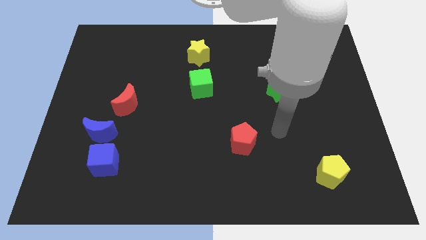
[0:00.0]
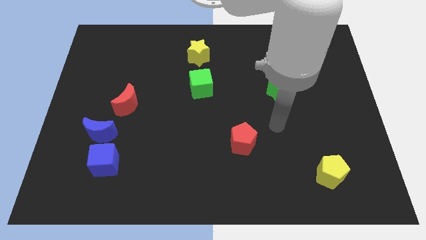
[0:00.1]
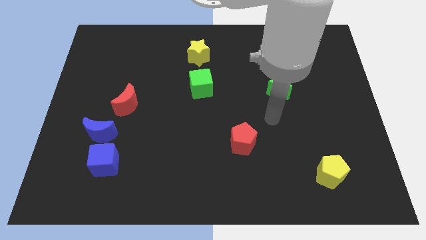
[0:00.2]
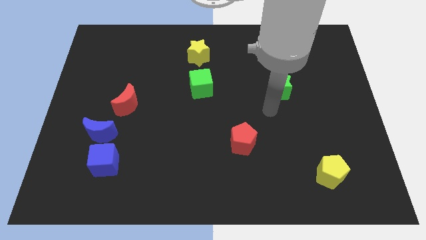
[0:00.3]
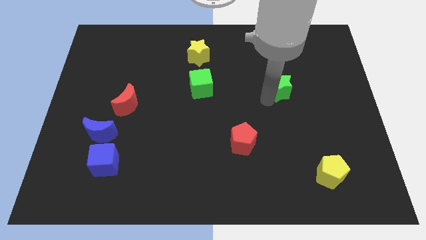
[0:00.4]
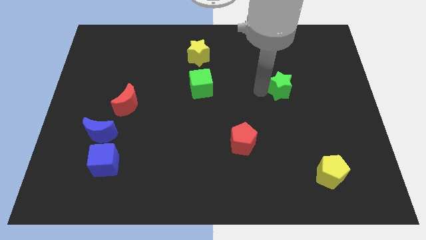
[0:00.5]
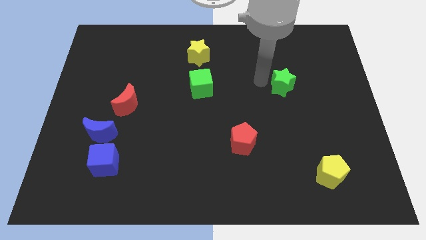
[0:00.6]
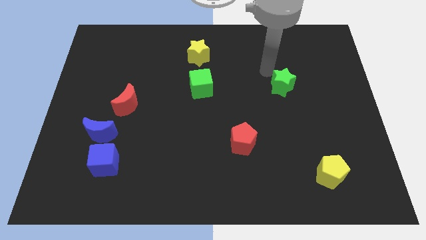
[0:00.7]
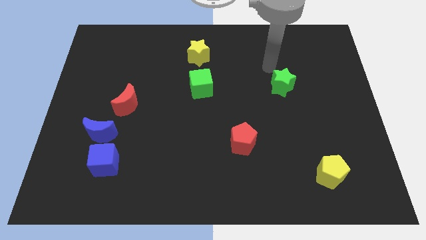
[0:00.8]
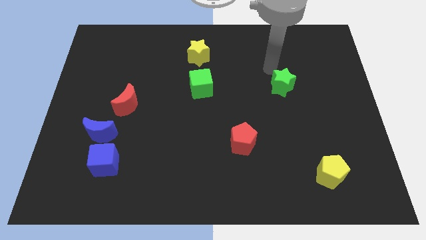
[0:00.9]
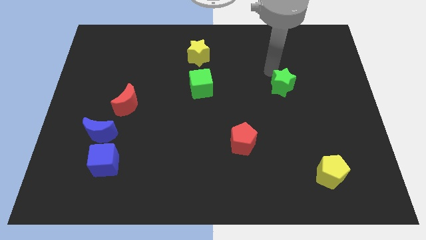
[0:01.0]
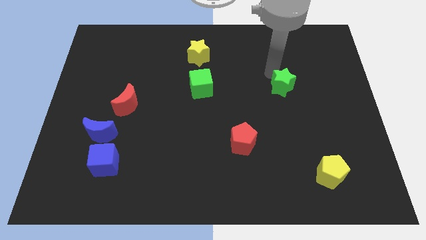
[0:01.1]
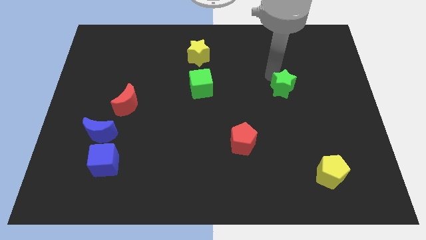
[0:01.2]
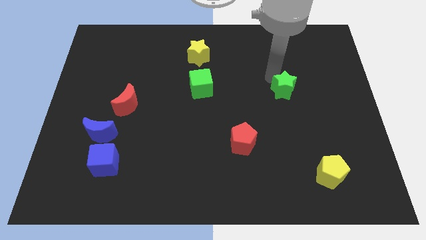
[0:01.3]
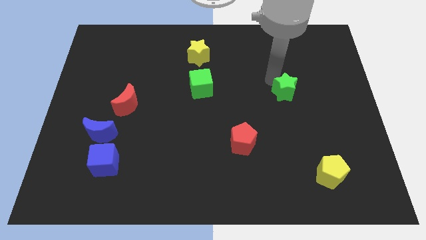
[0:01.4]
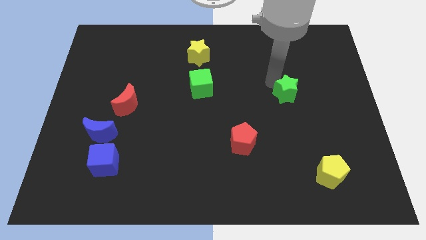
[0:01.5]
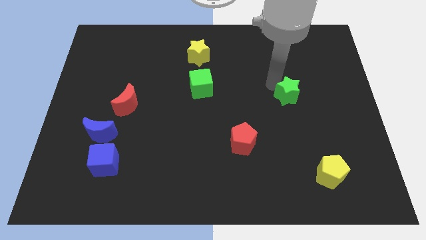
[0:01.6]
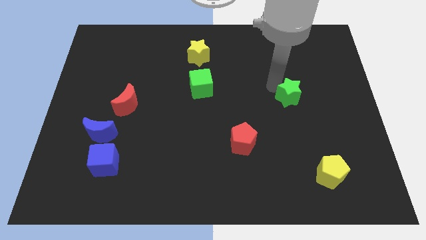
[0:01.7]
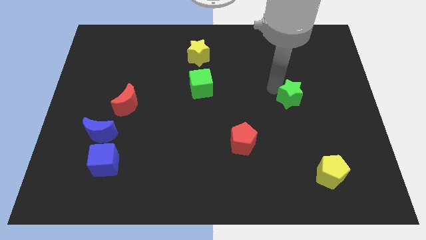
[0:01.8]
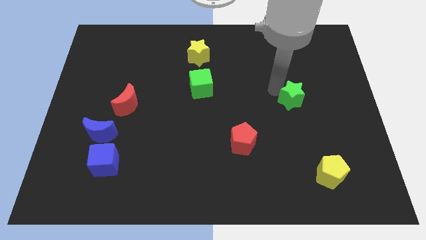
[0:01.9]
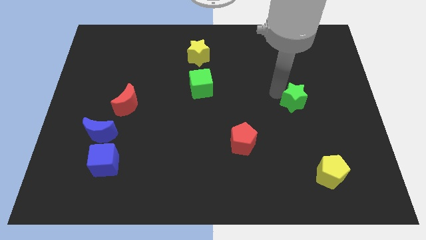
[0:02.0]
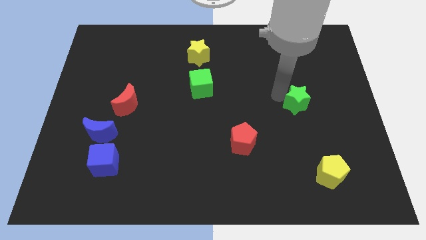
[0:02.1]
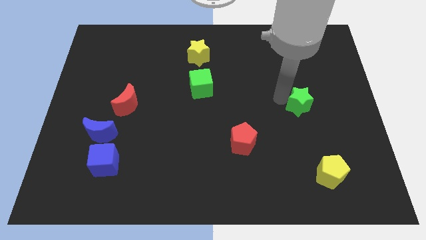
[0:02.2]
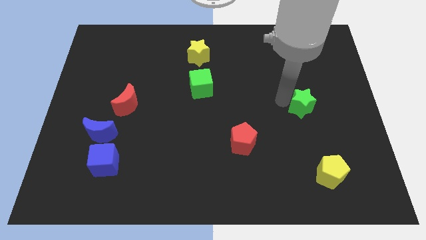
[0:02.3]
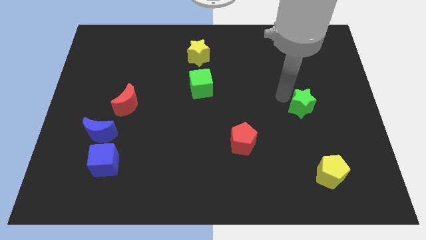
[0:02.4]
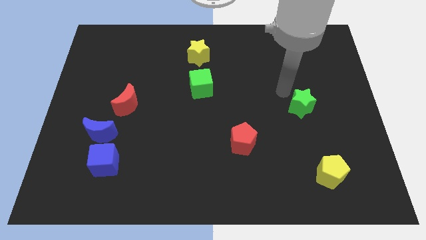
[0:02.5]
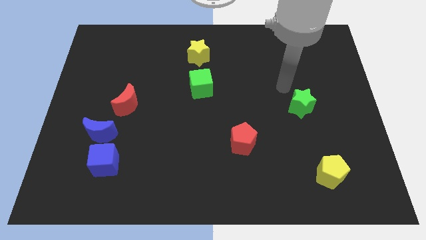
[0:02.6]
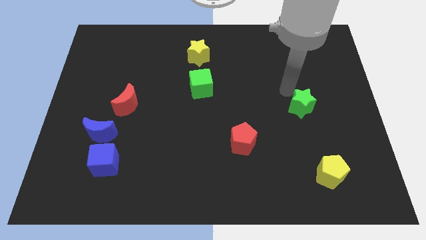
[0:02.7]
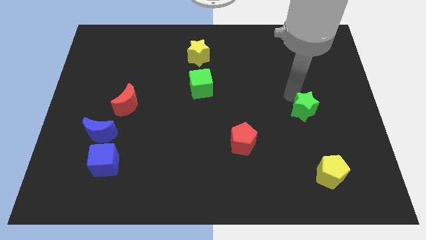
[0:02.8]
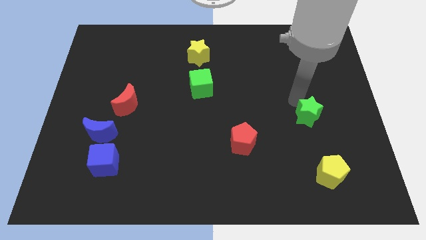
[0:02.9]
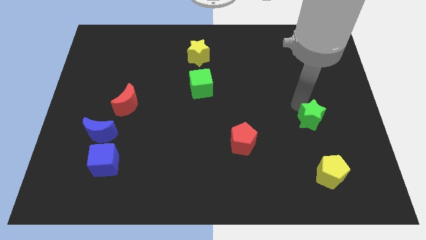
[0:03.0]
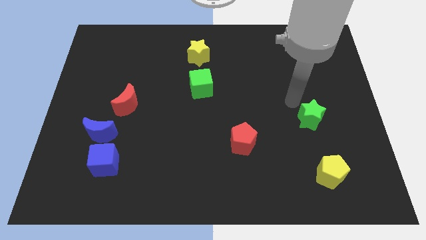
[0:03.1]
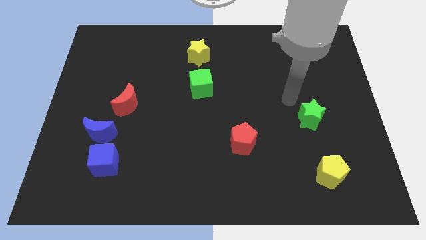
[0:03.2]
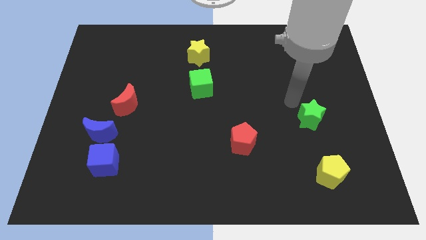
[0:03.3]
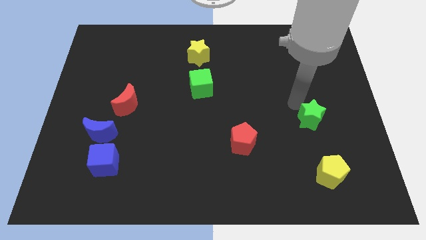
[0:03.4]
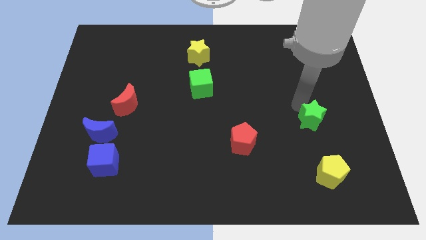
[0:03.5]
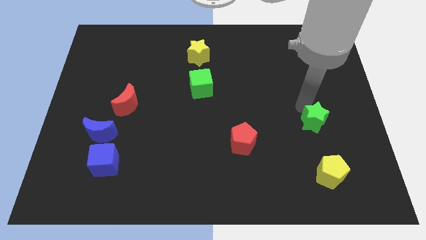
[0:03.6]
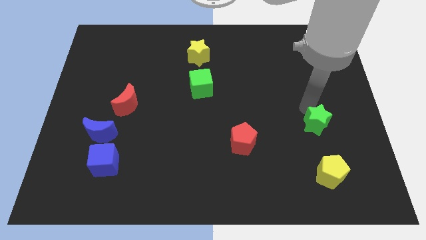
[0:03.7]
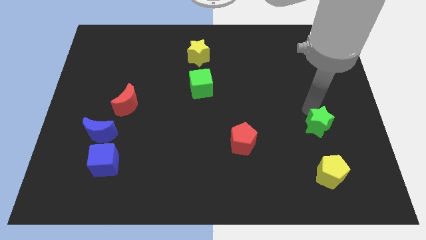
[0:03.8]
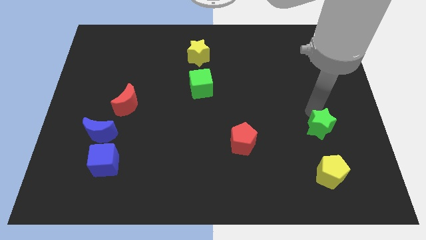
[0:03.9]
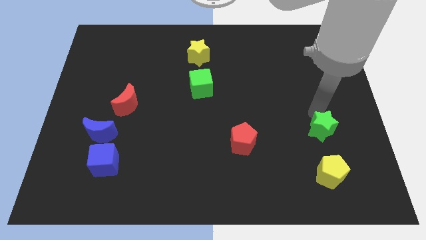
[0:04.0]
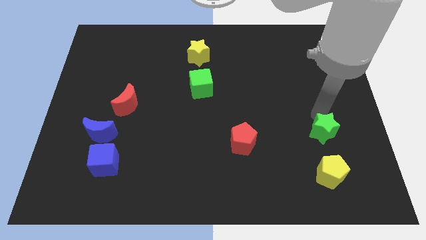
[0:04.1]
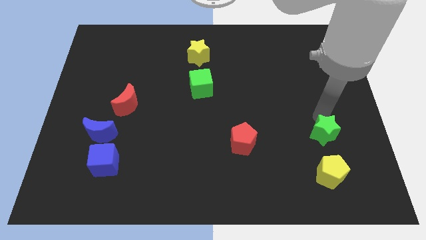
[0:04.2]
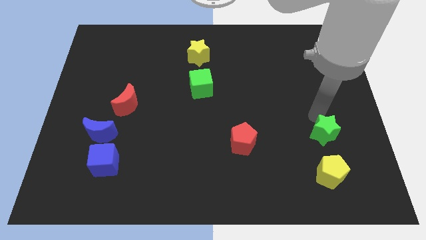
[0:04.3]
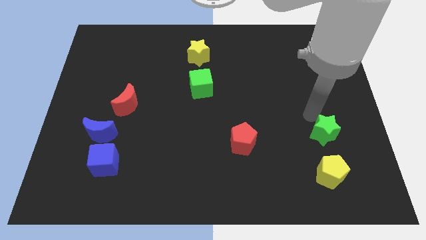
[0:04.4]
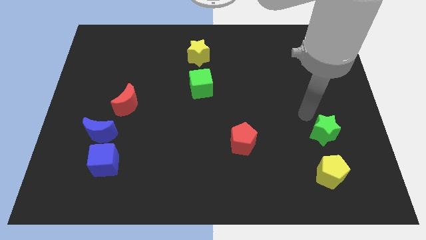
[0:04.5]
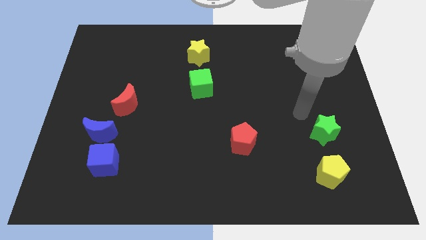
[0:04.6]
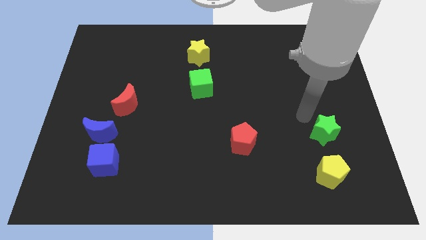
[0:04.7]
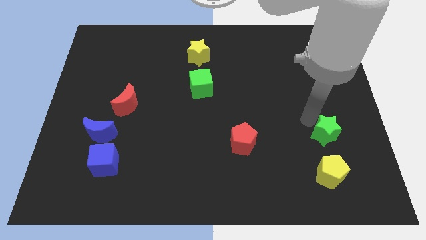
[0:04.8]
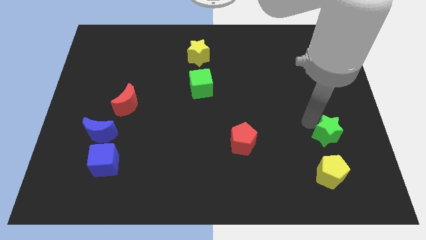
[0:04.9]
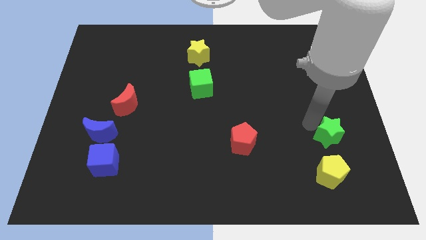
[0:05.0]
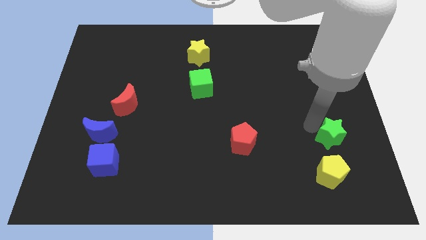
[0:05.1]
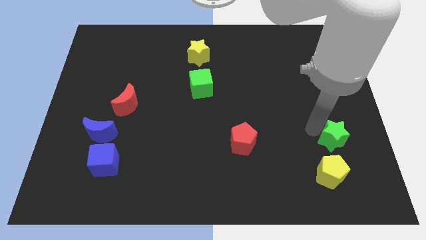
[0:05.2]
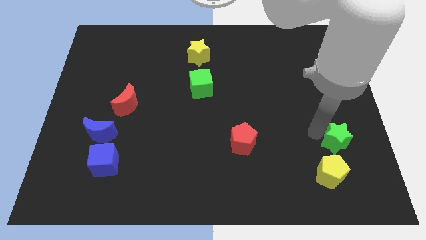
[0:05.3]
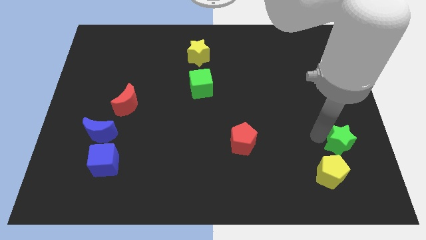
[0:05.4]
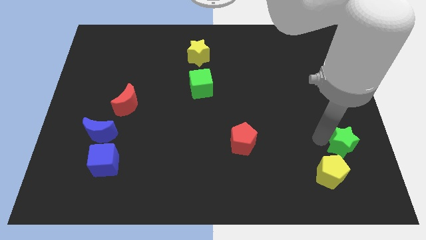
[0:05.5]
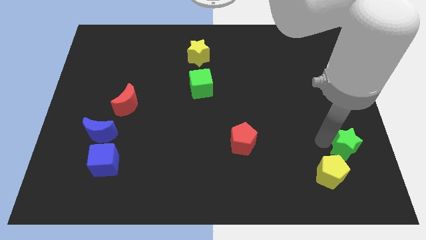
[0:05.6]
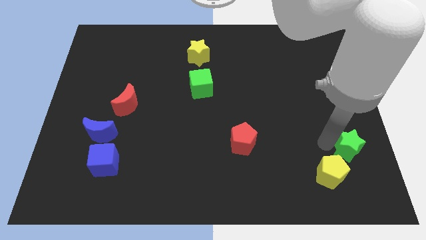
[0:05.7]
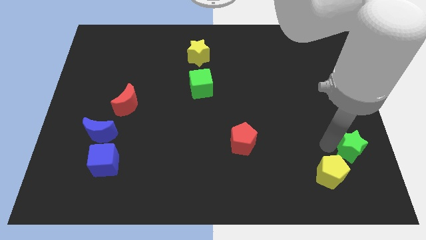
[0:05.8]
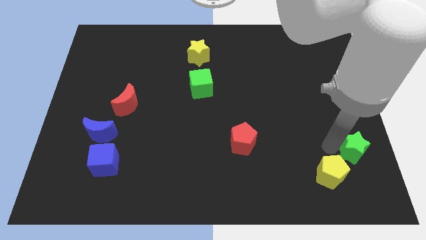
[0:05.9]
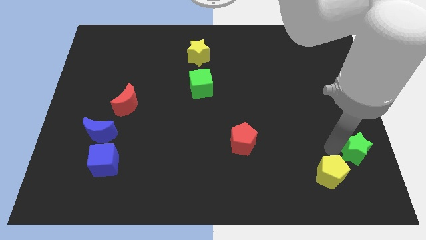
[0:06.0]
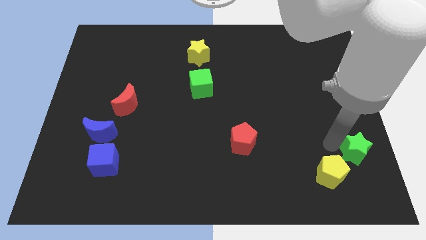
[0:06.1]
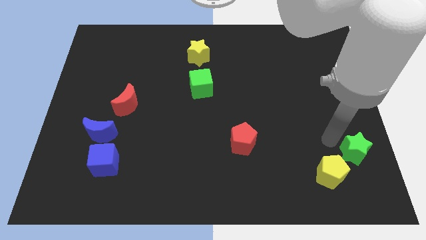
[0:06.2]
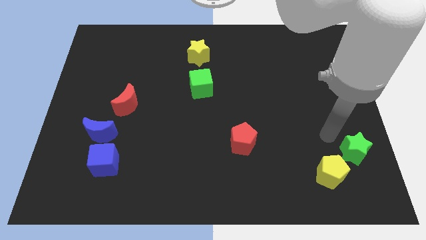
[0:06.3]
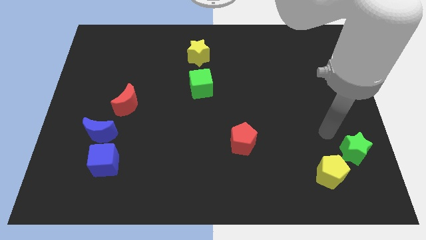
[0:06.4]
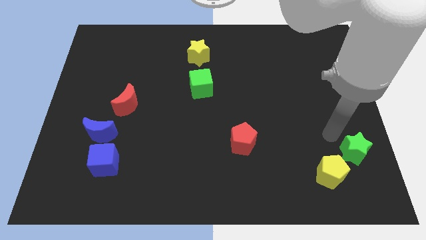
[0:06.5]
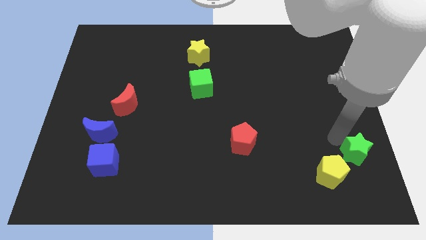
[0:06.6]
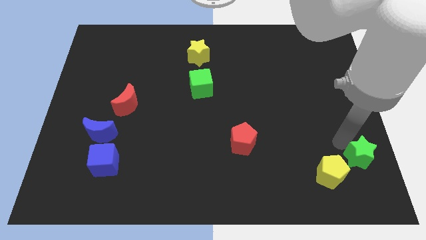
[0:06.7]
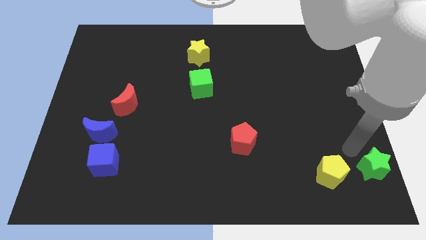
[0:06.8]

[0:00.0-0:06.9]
put the green star to the lower right corner
